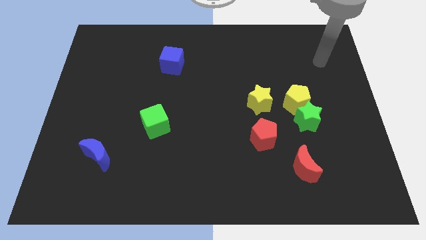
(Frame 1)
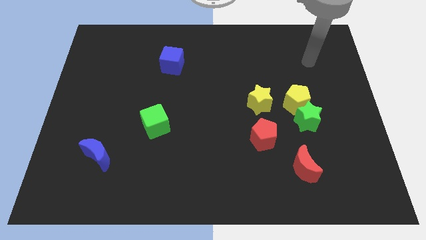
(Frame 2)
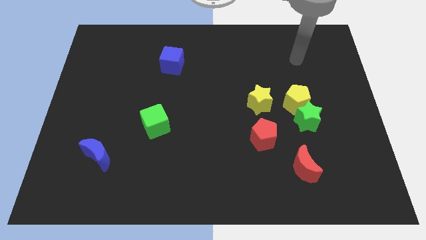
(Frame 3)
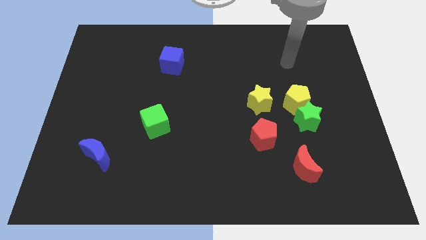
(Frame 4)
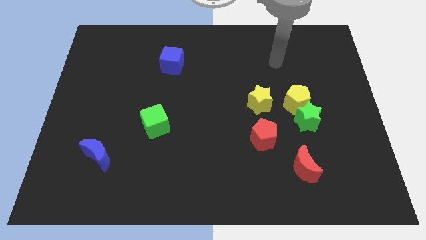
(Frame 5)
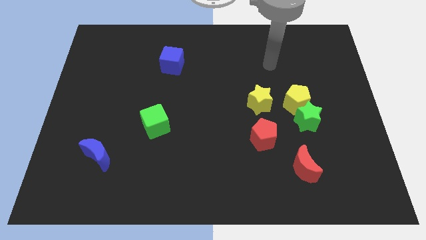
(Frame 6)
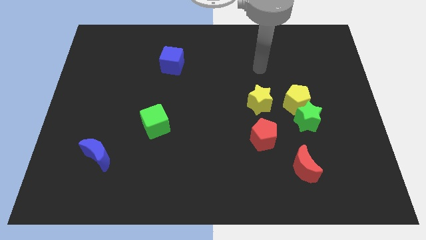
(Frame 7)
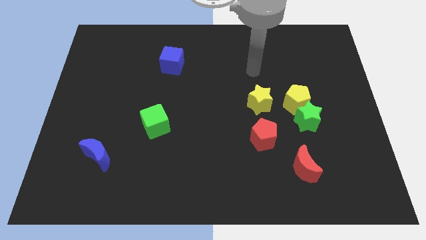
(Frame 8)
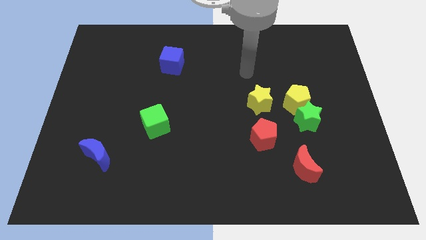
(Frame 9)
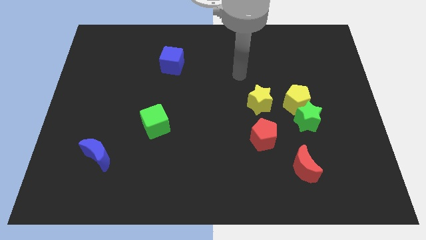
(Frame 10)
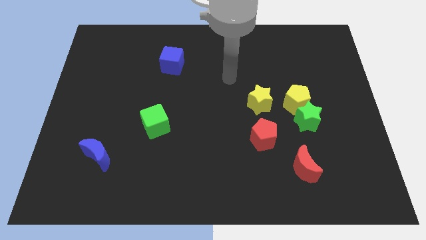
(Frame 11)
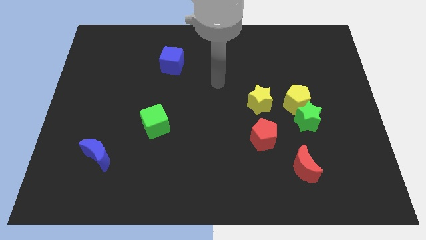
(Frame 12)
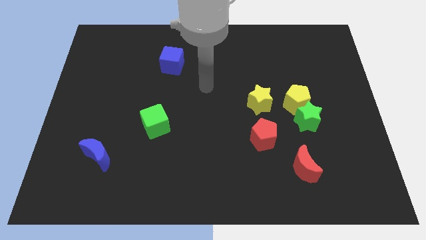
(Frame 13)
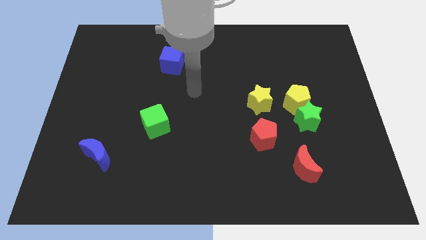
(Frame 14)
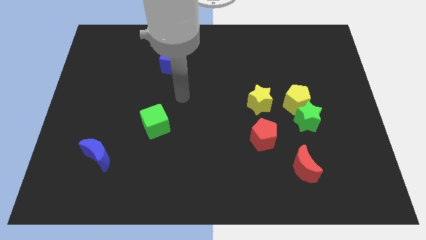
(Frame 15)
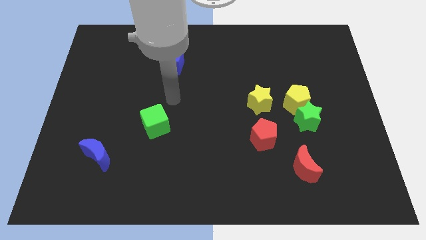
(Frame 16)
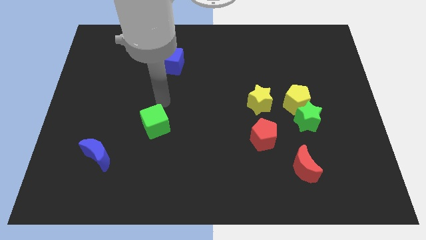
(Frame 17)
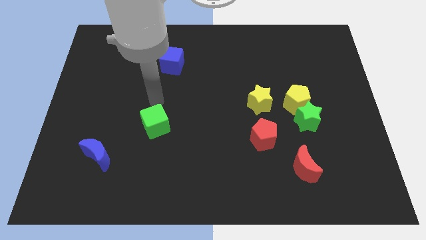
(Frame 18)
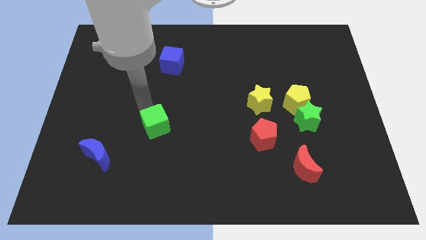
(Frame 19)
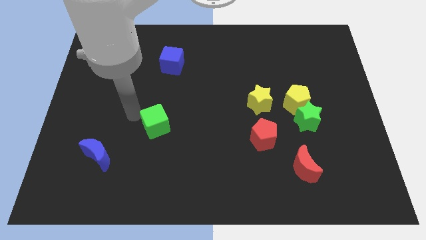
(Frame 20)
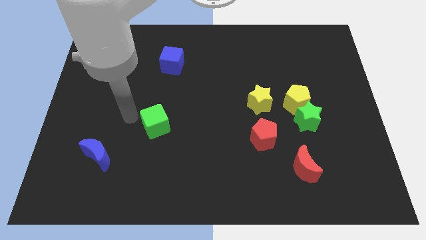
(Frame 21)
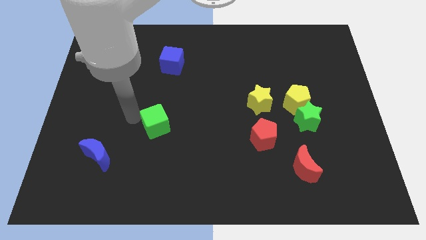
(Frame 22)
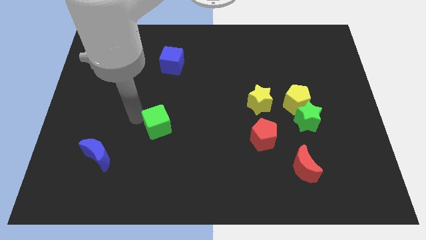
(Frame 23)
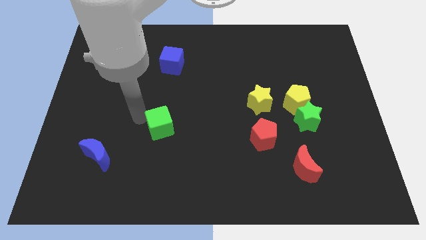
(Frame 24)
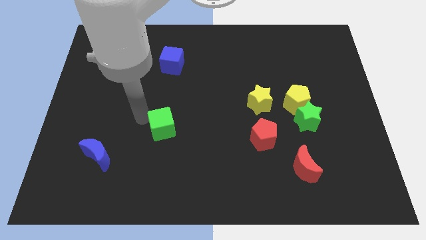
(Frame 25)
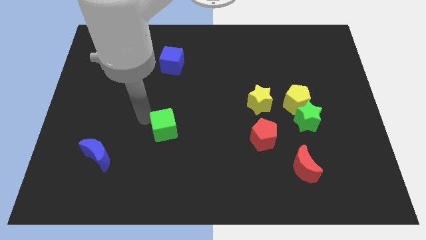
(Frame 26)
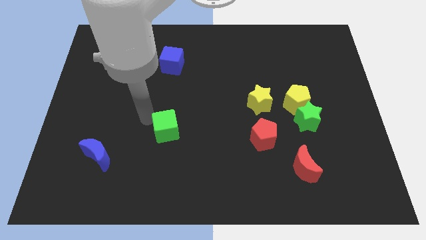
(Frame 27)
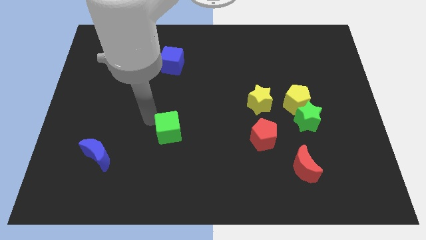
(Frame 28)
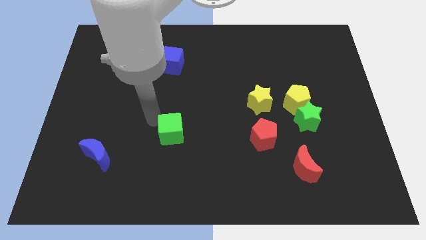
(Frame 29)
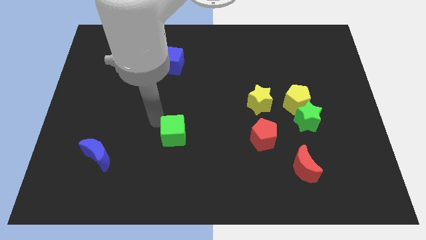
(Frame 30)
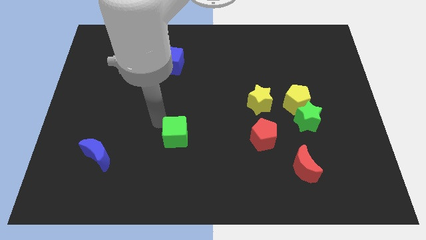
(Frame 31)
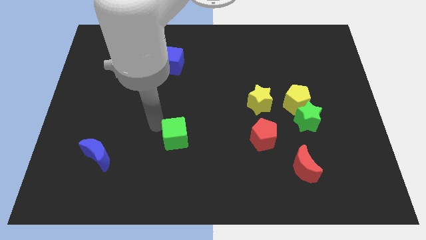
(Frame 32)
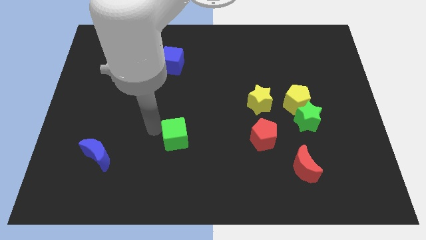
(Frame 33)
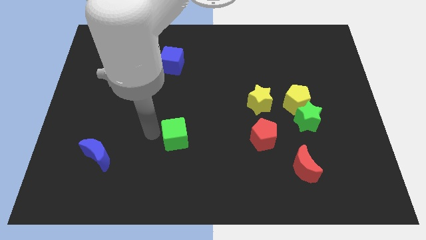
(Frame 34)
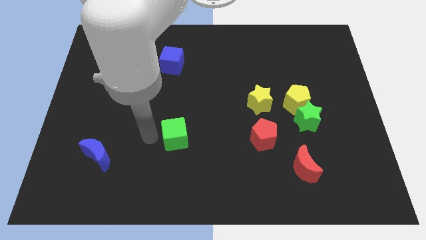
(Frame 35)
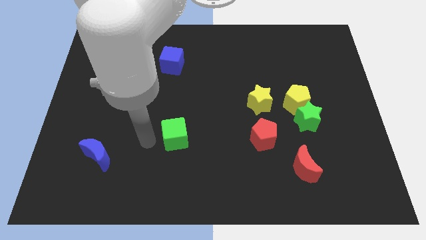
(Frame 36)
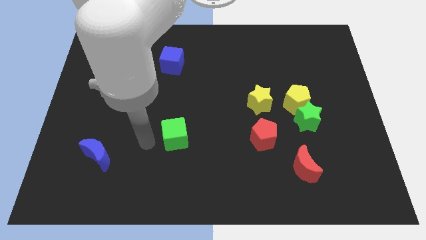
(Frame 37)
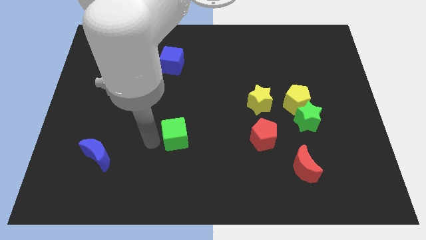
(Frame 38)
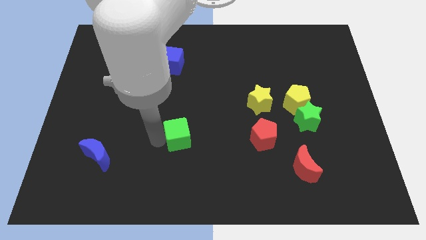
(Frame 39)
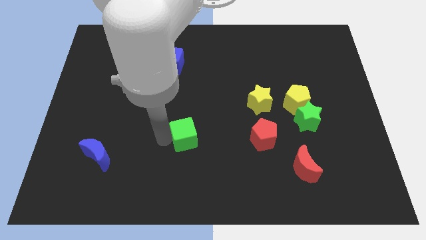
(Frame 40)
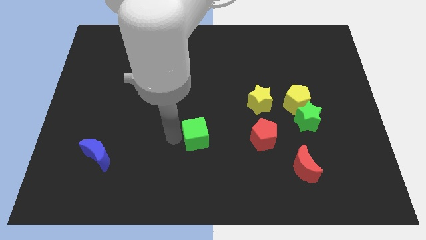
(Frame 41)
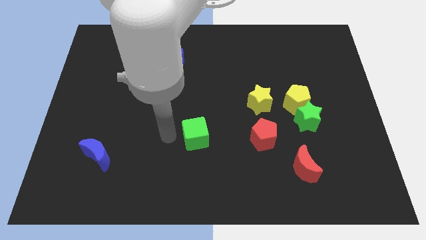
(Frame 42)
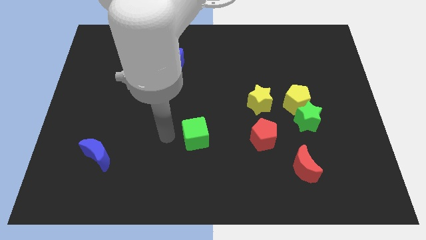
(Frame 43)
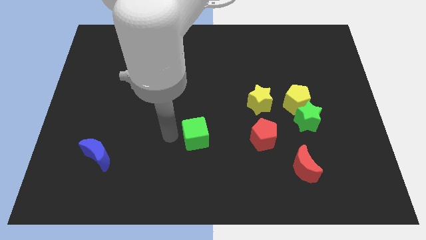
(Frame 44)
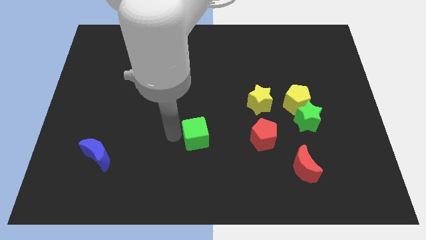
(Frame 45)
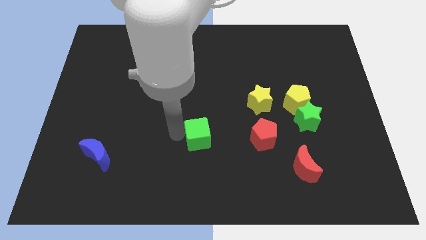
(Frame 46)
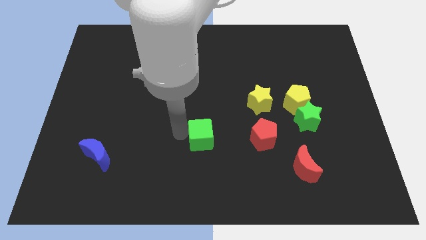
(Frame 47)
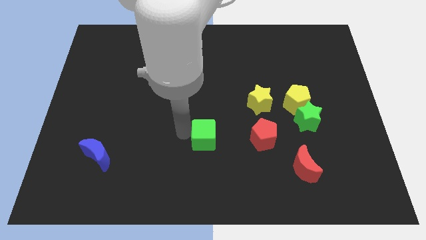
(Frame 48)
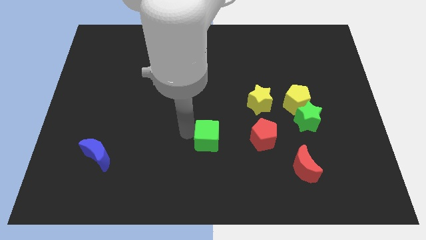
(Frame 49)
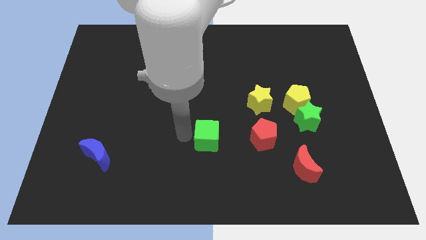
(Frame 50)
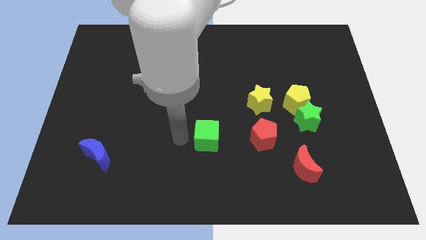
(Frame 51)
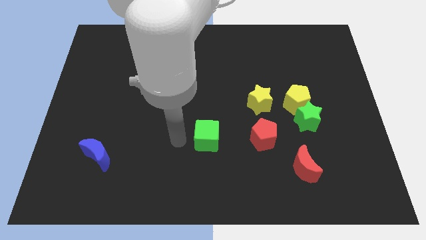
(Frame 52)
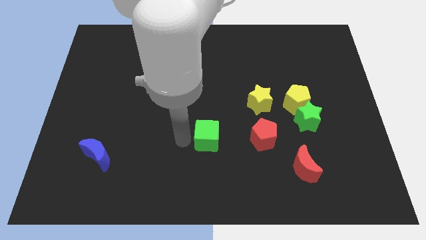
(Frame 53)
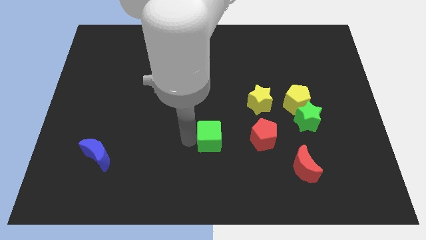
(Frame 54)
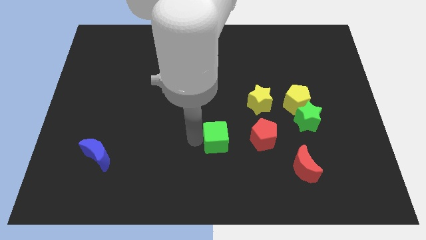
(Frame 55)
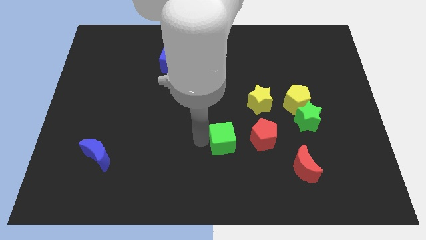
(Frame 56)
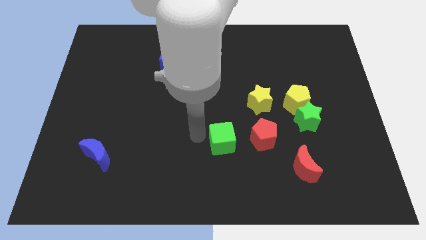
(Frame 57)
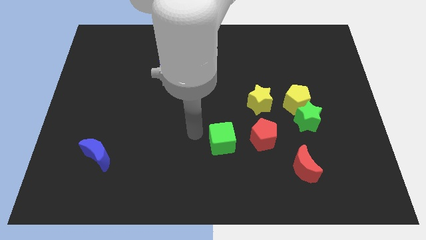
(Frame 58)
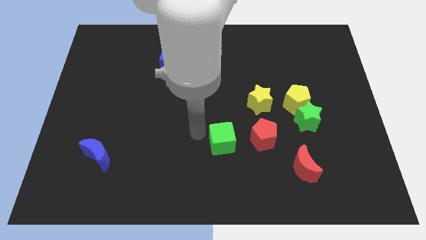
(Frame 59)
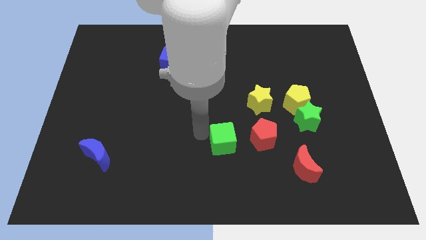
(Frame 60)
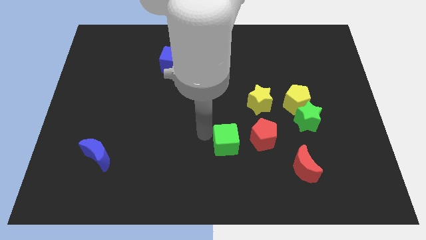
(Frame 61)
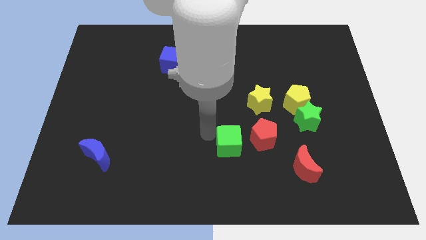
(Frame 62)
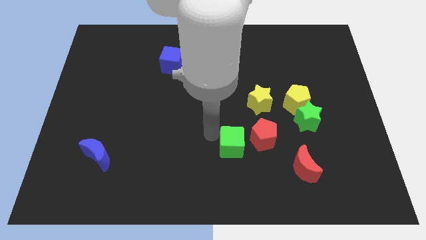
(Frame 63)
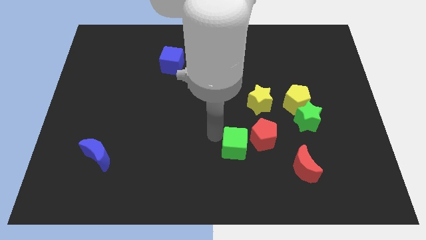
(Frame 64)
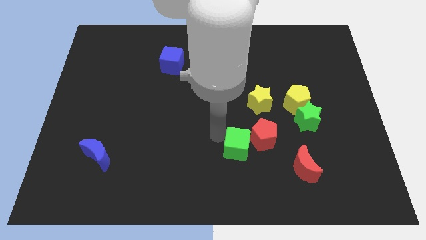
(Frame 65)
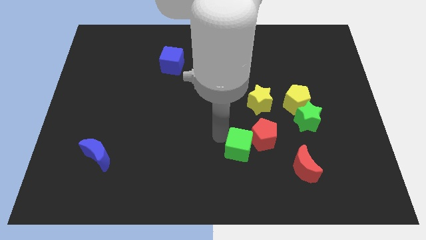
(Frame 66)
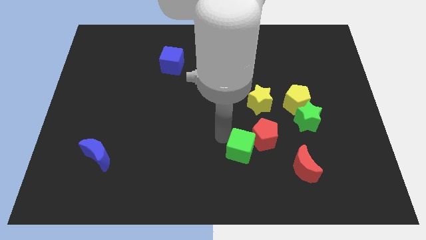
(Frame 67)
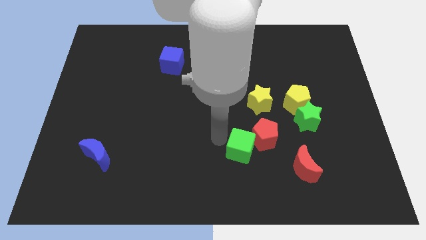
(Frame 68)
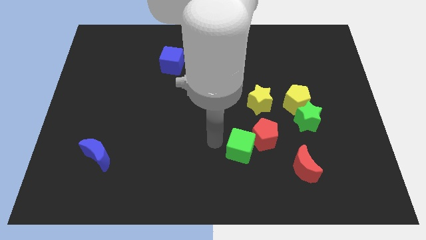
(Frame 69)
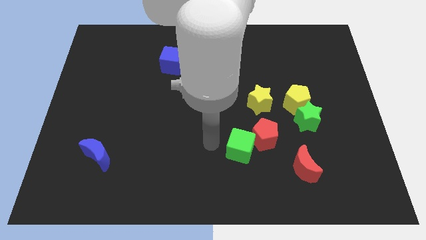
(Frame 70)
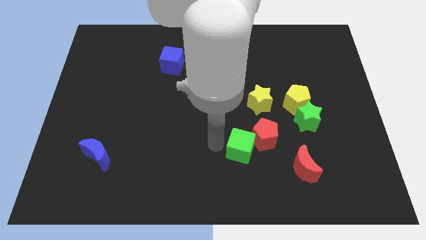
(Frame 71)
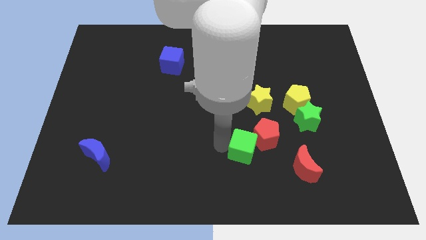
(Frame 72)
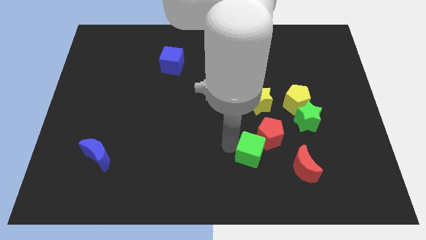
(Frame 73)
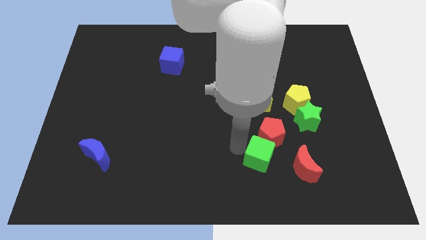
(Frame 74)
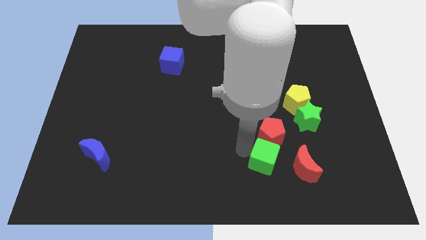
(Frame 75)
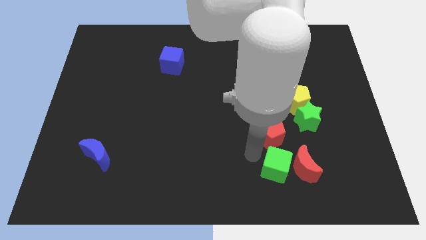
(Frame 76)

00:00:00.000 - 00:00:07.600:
push the green cube close to the red moon
